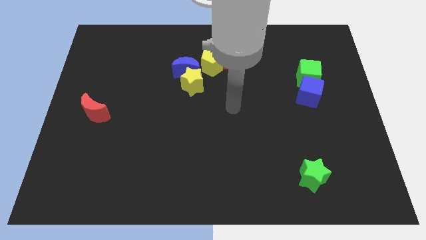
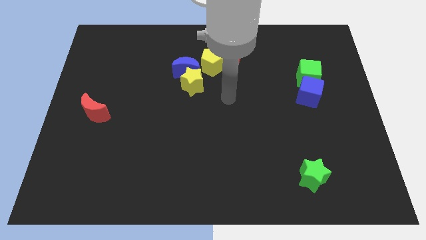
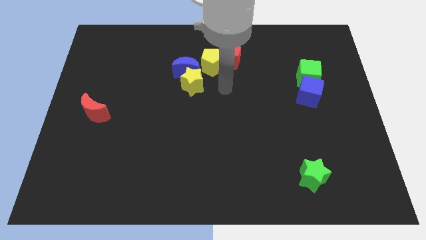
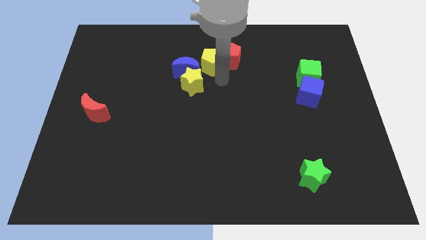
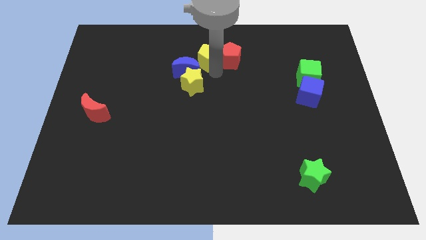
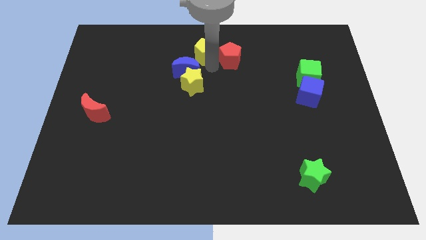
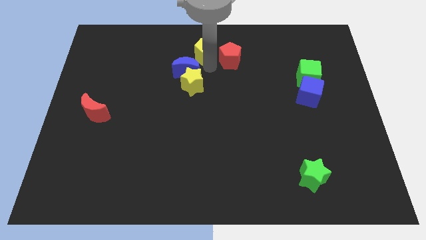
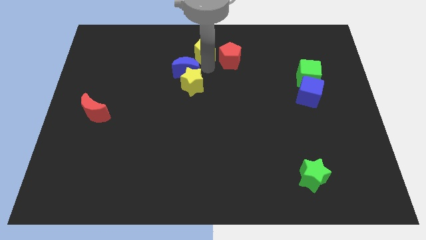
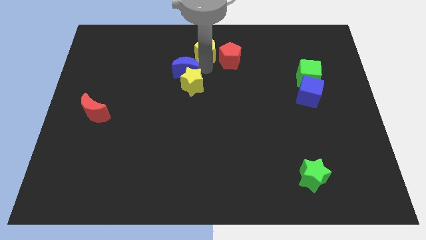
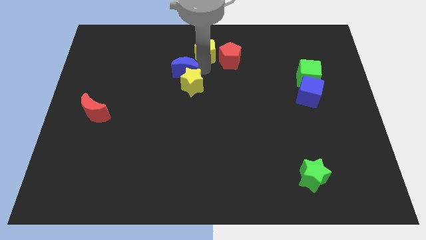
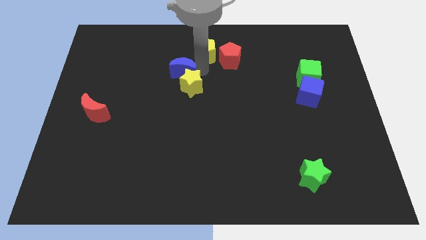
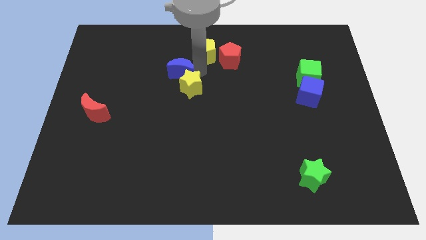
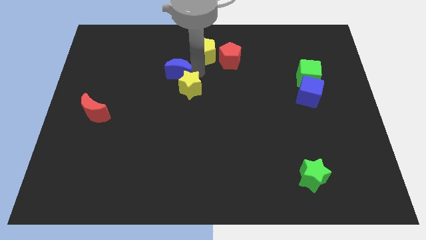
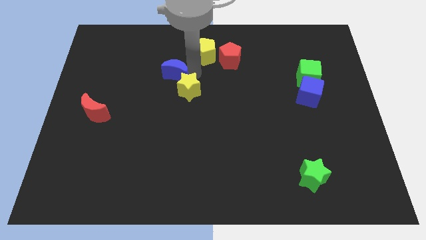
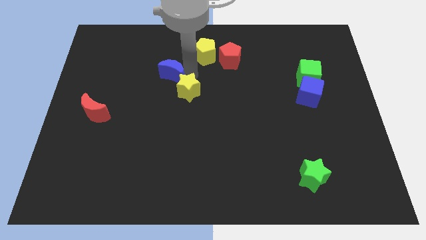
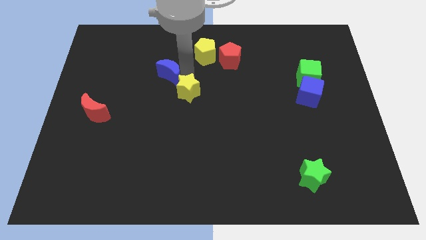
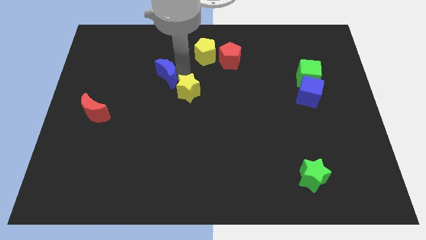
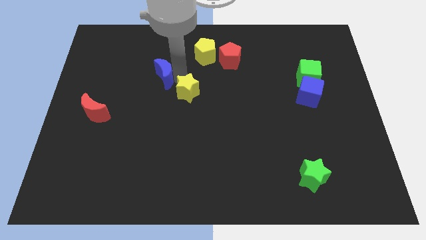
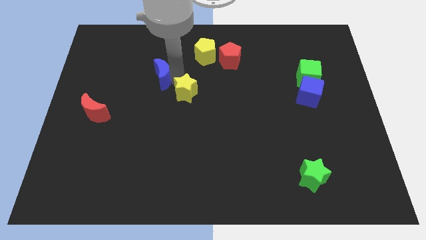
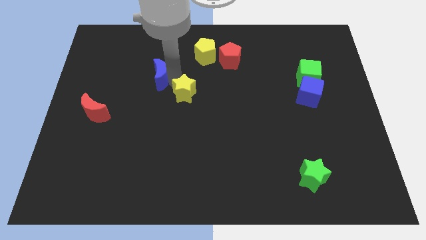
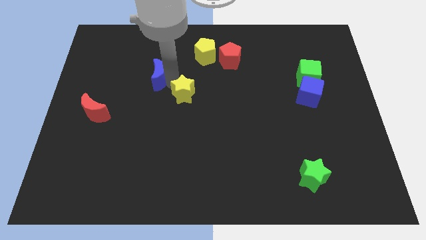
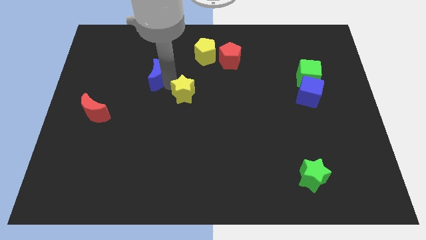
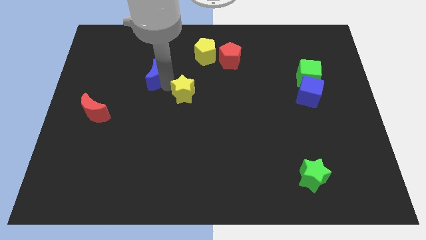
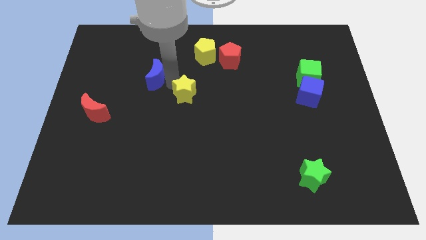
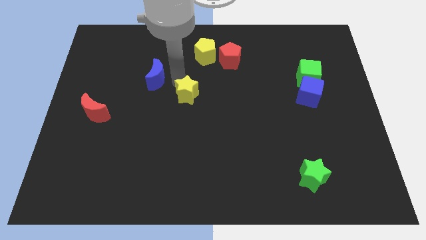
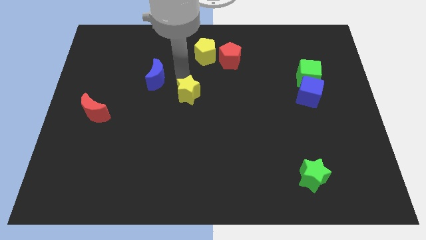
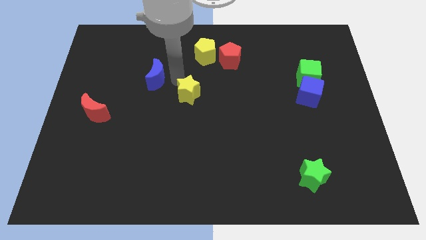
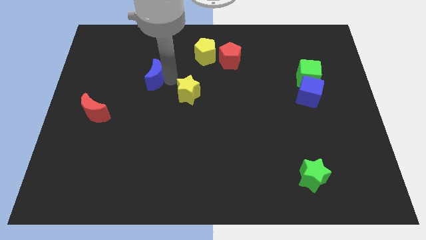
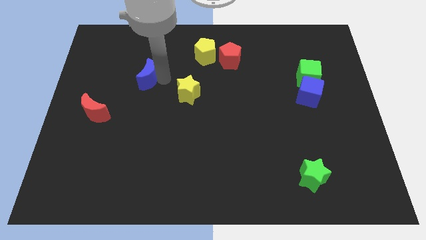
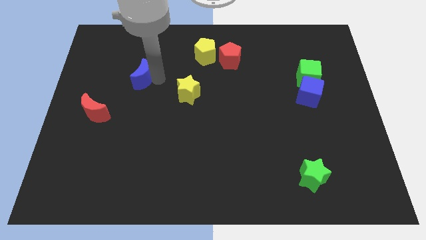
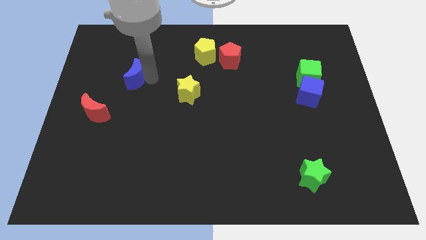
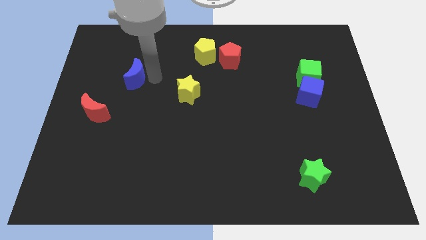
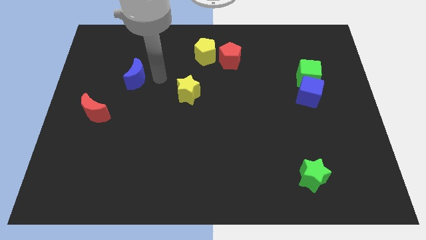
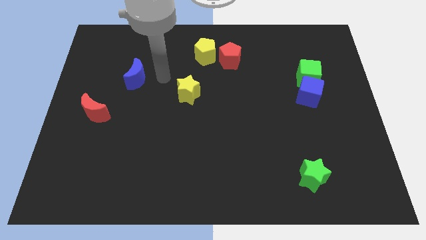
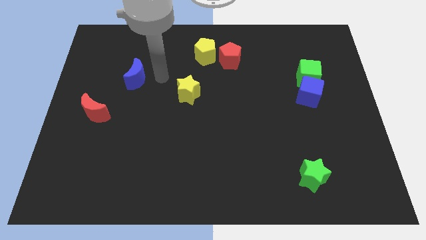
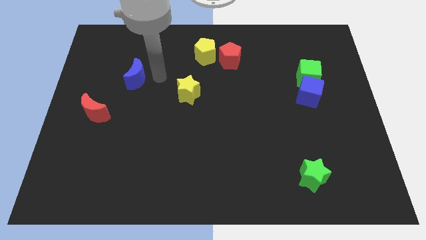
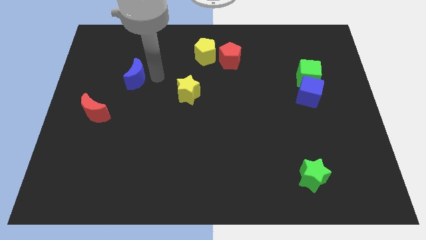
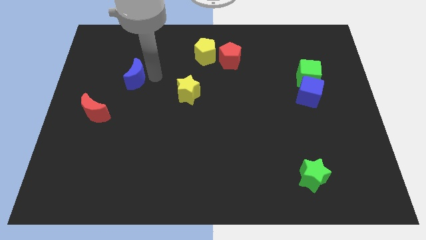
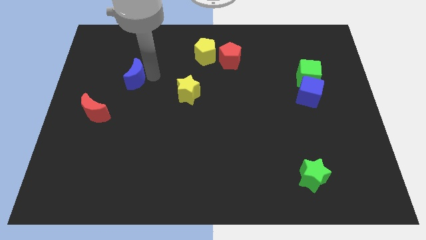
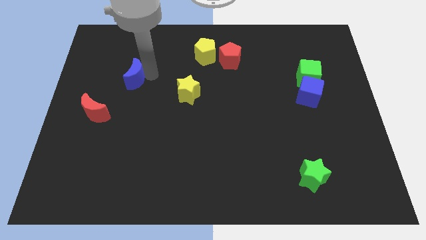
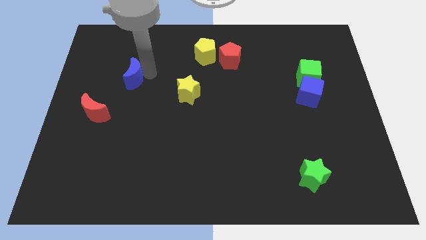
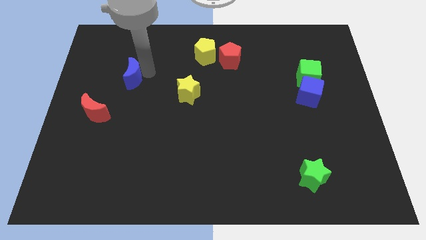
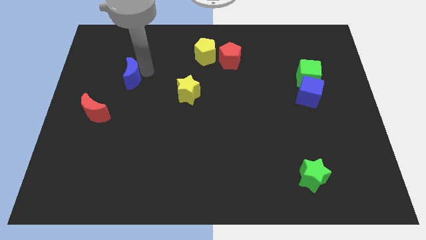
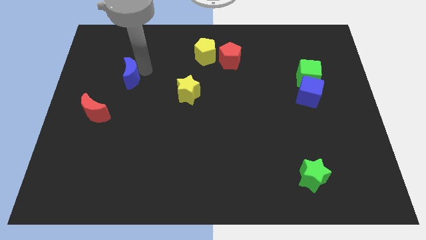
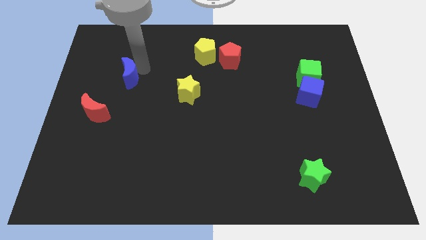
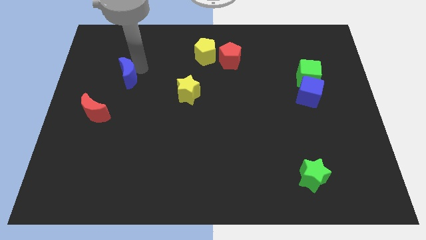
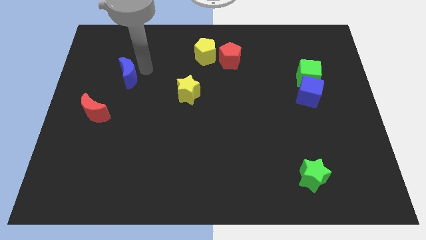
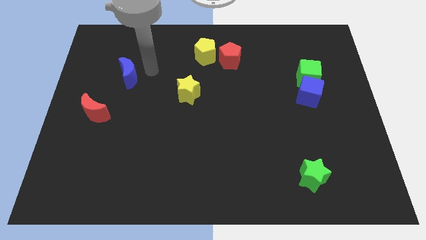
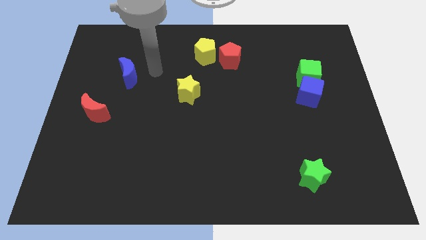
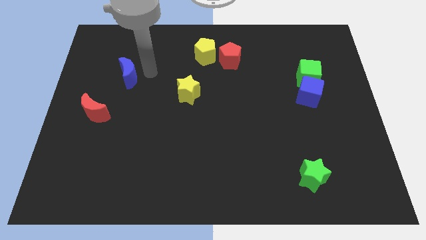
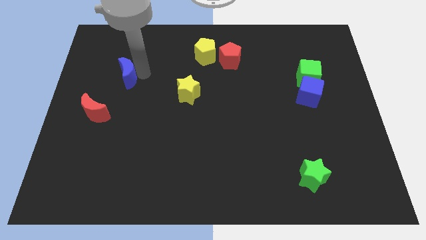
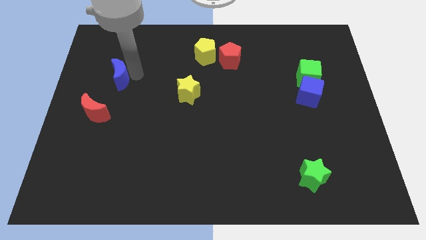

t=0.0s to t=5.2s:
move the blue moon above the red moon

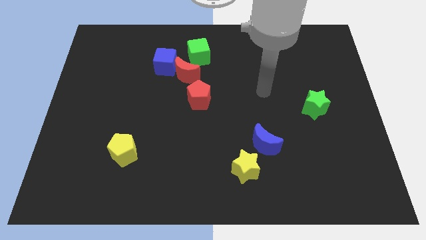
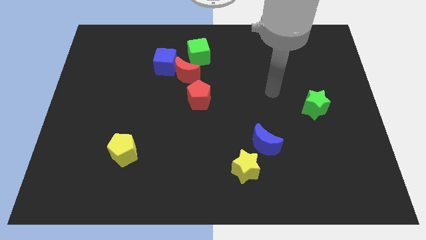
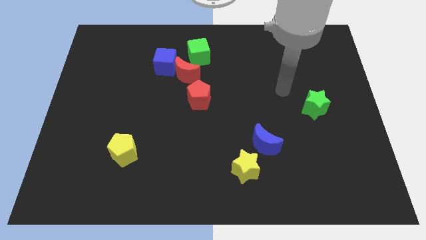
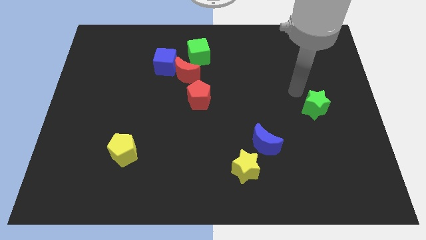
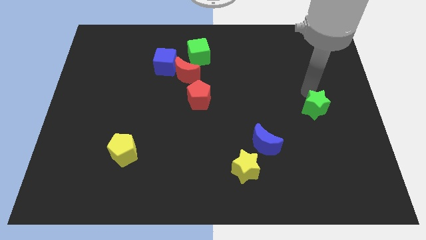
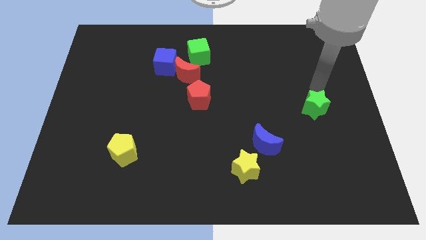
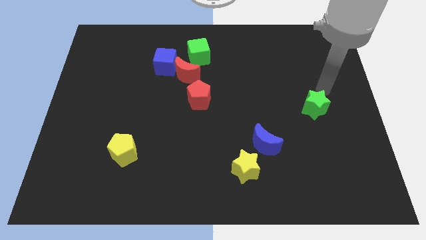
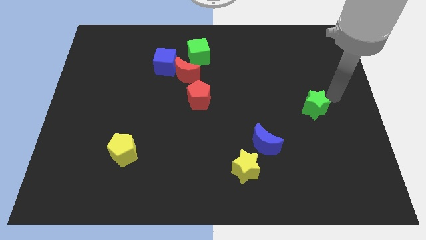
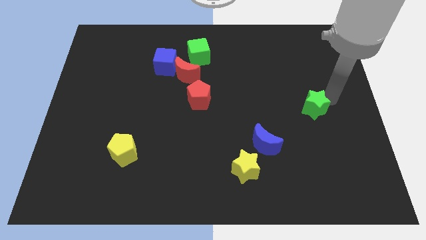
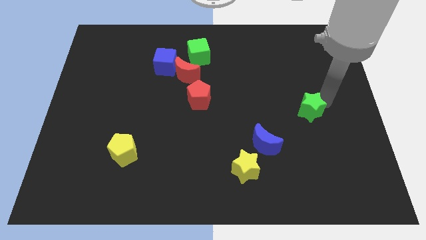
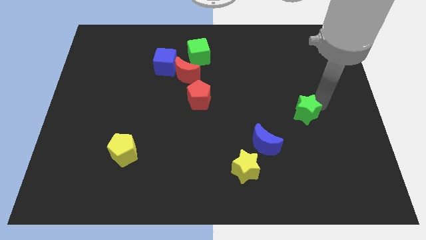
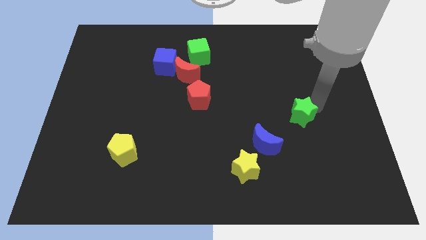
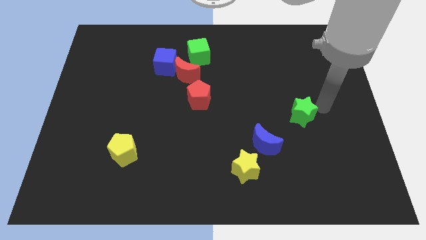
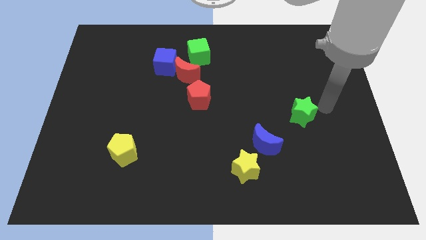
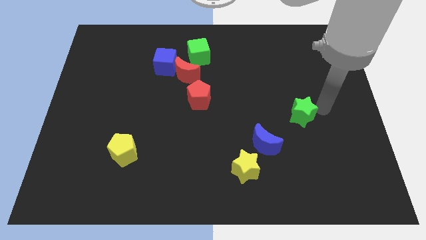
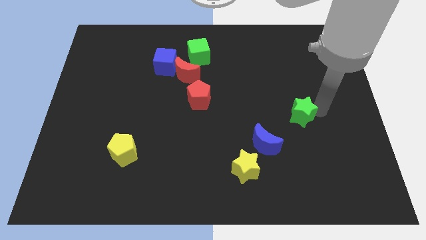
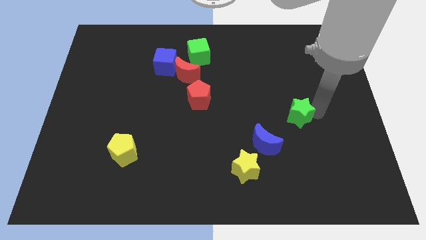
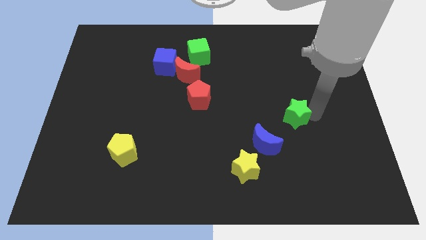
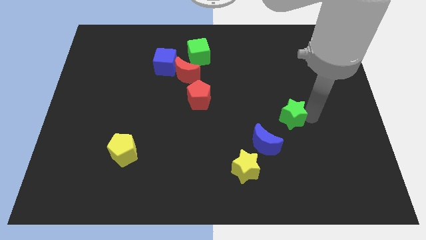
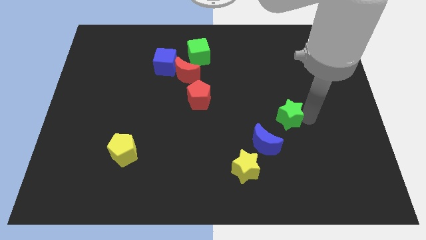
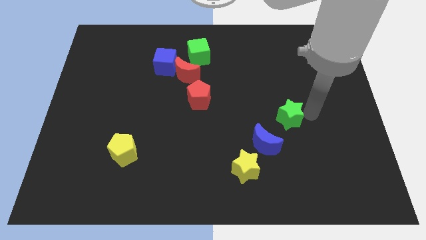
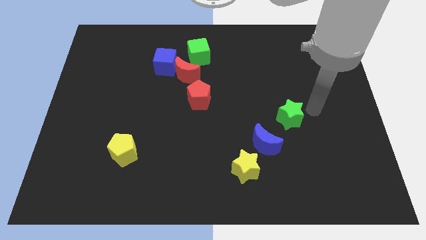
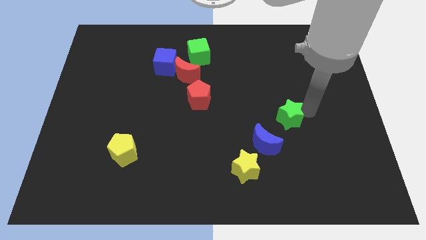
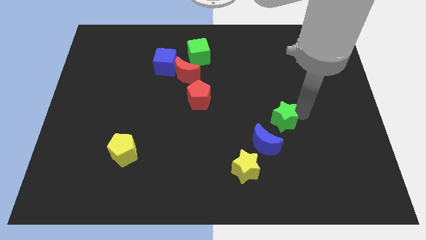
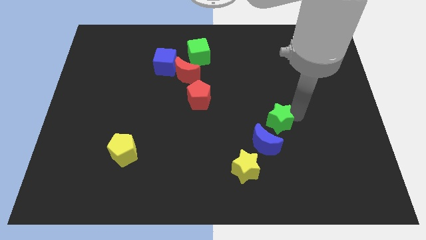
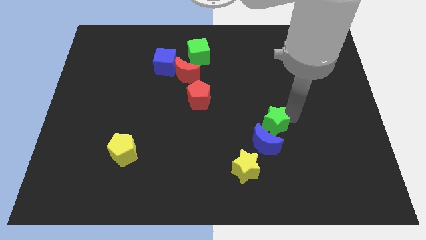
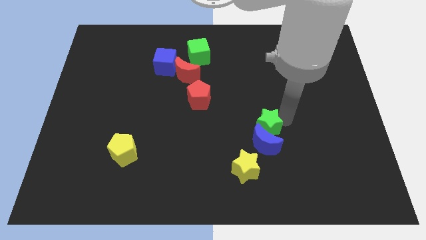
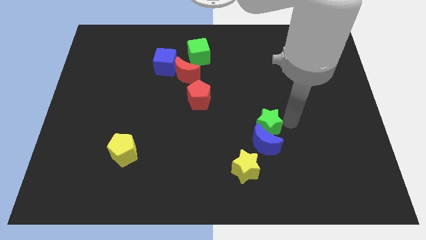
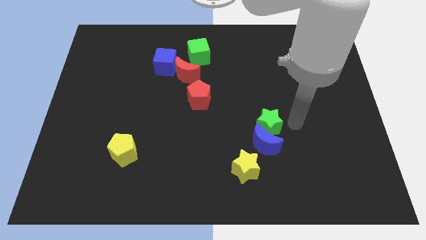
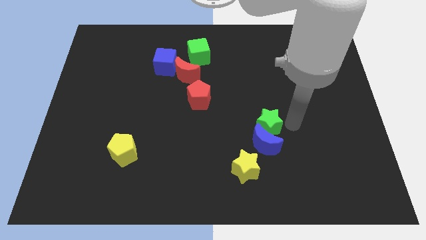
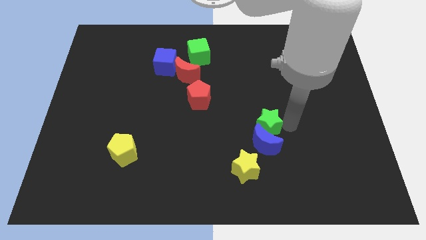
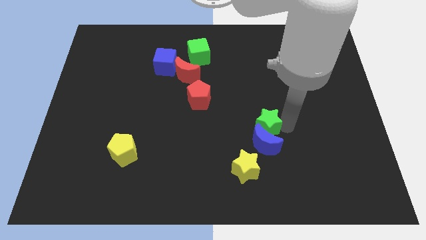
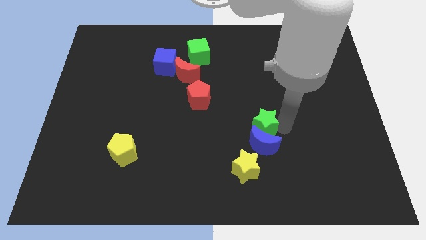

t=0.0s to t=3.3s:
push the green star above the yellow star

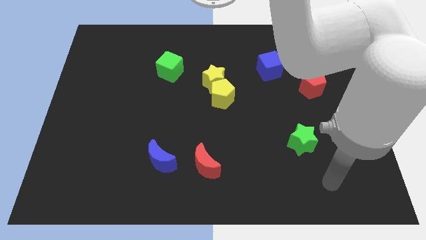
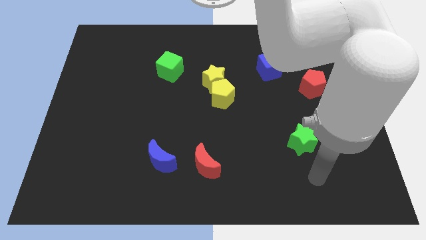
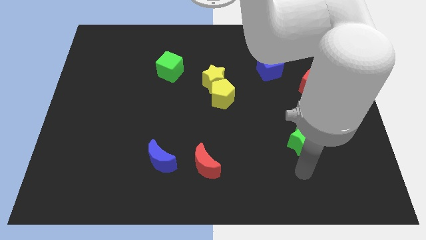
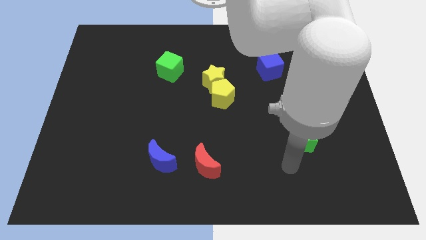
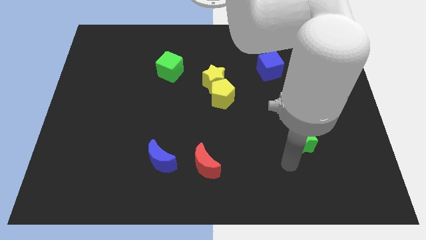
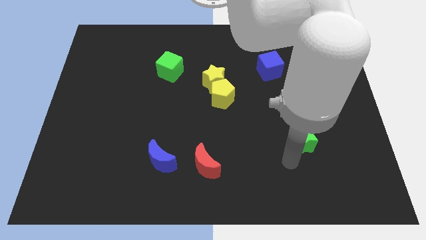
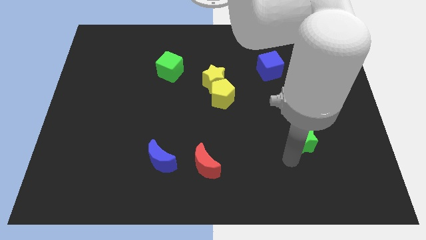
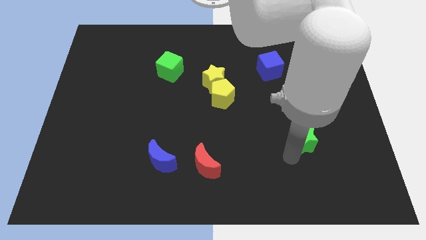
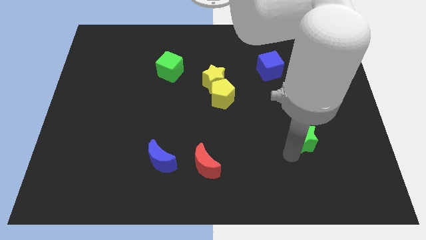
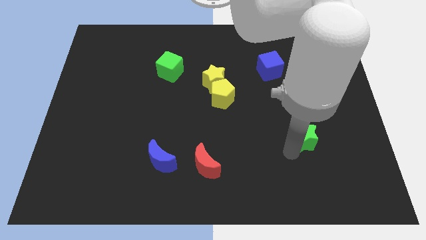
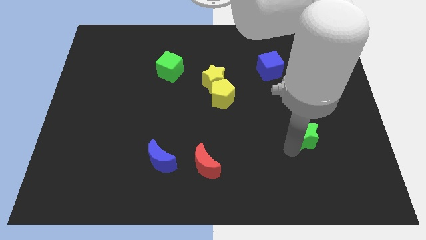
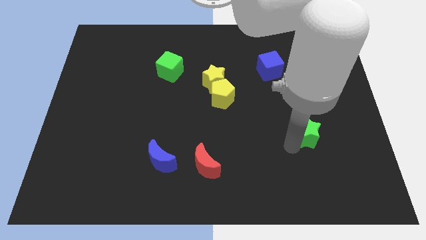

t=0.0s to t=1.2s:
slide the green star below the red pentagon
